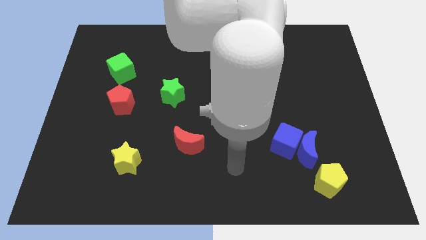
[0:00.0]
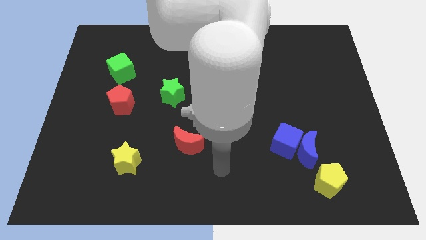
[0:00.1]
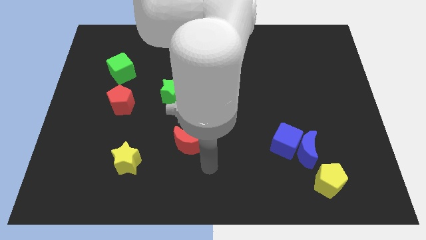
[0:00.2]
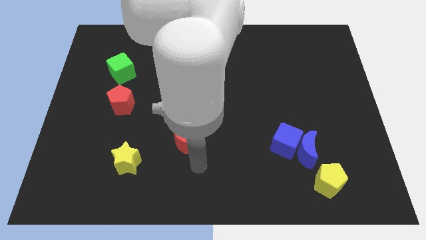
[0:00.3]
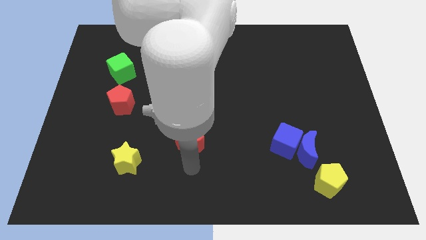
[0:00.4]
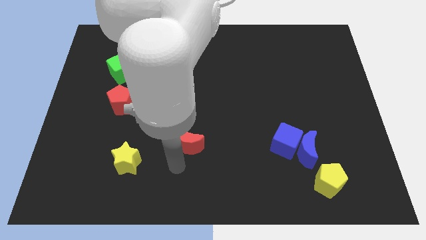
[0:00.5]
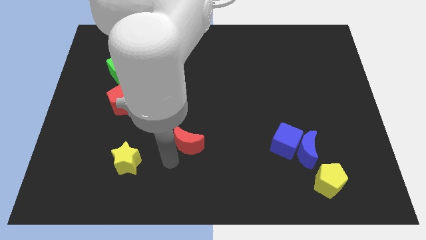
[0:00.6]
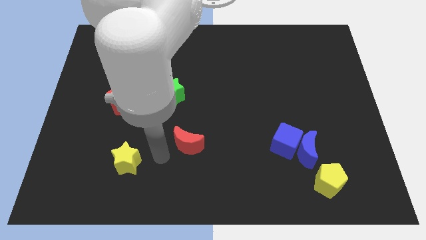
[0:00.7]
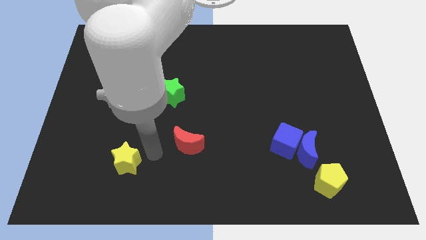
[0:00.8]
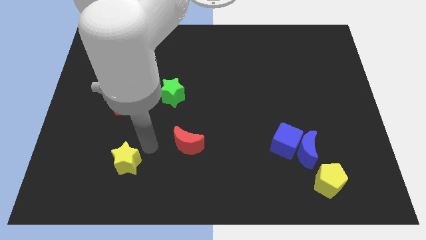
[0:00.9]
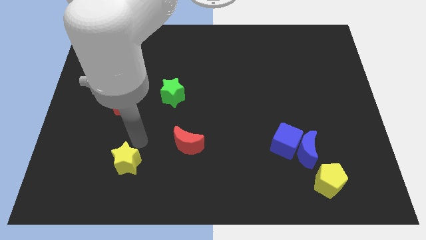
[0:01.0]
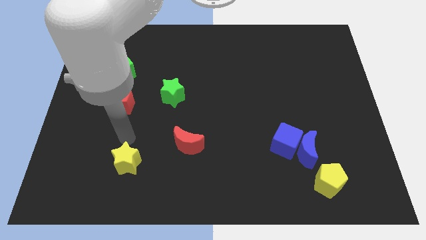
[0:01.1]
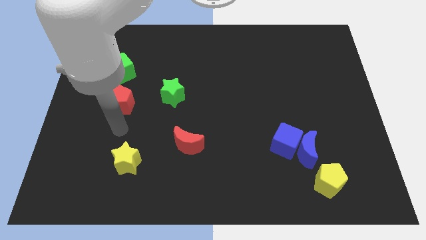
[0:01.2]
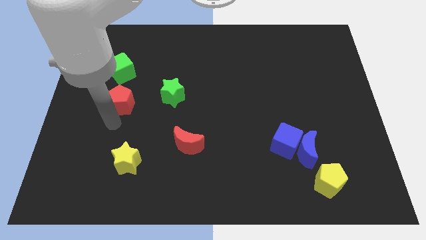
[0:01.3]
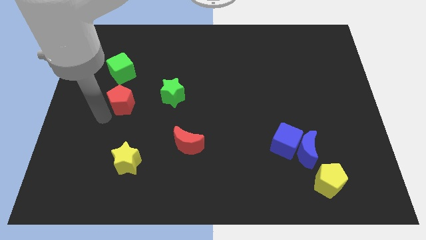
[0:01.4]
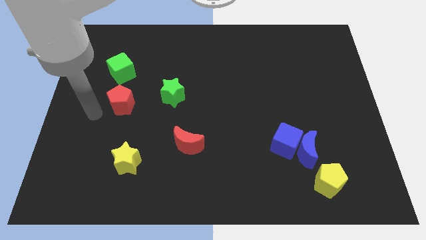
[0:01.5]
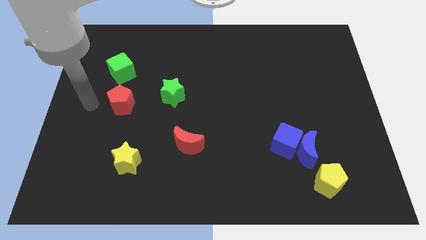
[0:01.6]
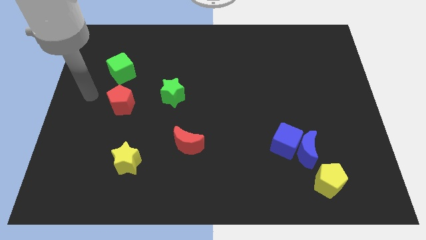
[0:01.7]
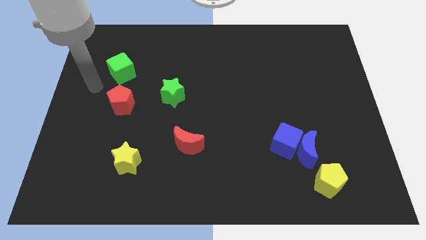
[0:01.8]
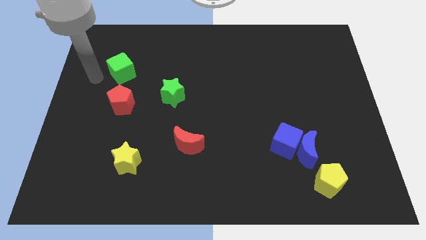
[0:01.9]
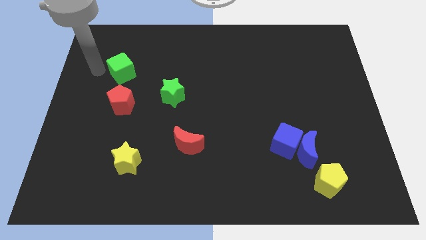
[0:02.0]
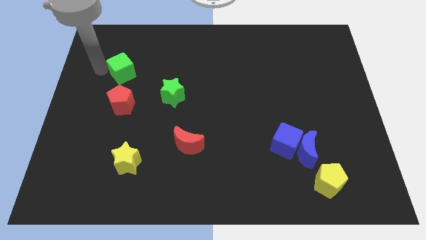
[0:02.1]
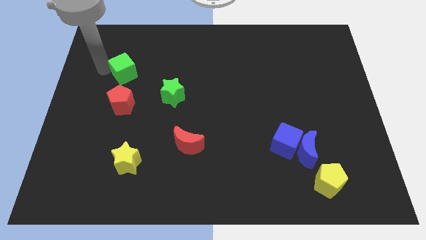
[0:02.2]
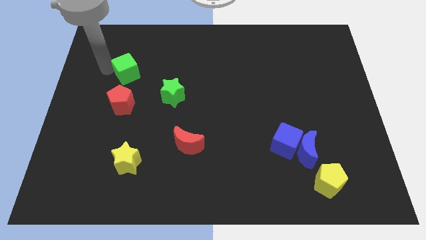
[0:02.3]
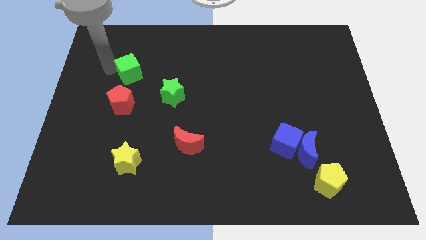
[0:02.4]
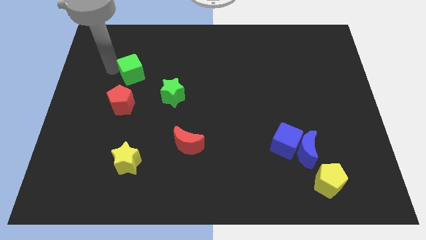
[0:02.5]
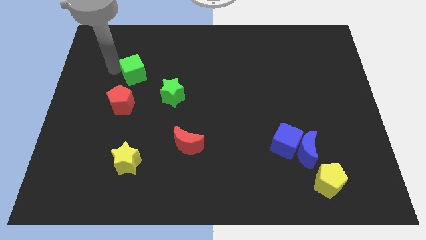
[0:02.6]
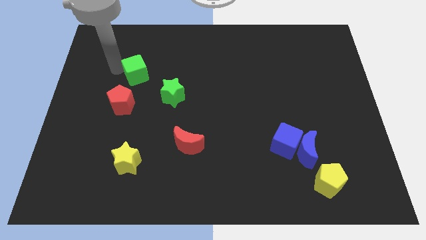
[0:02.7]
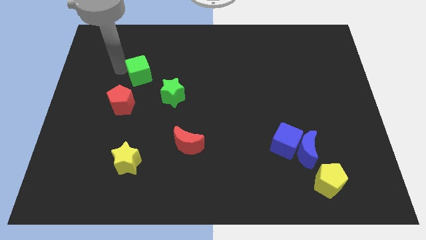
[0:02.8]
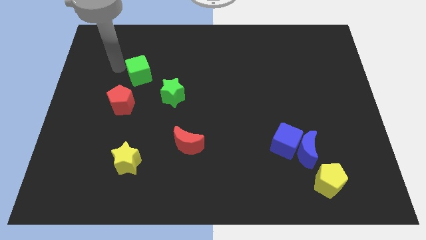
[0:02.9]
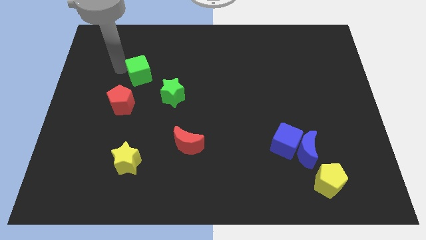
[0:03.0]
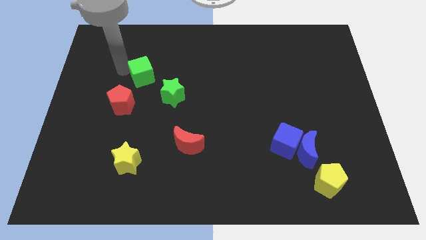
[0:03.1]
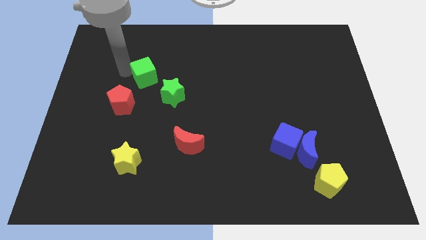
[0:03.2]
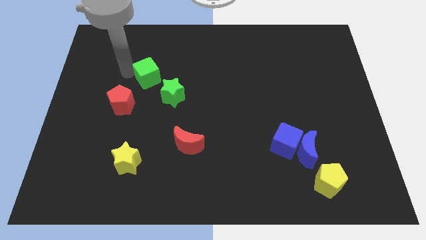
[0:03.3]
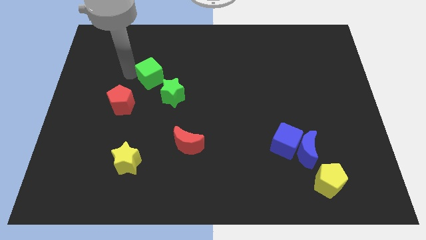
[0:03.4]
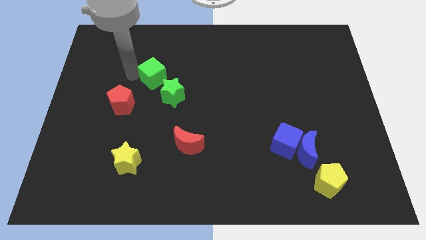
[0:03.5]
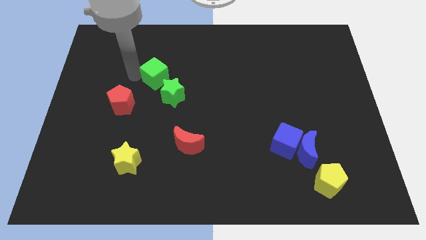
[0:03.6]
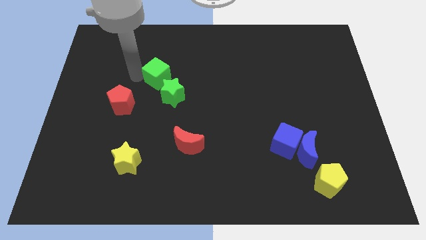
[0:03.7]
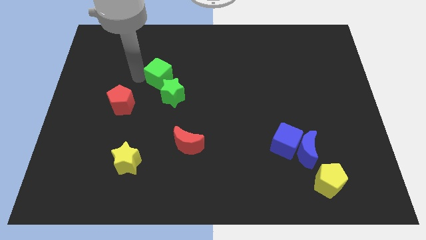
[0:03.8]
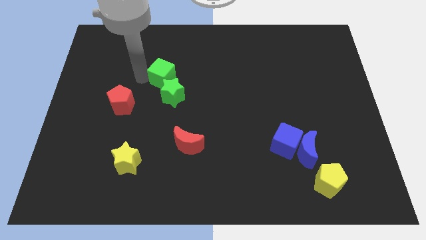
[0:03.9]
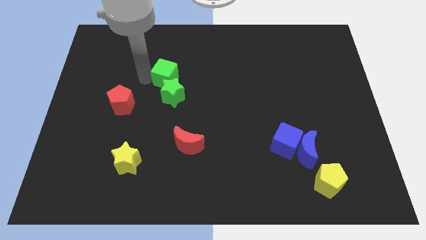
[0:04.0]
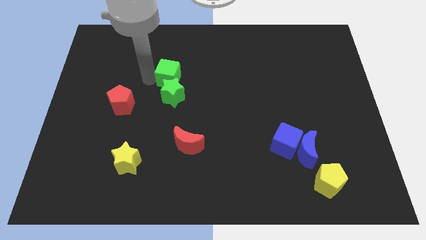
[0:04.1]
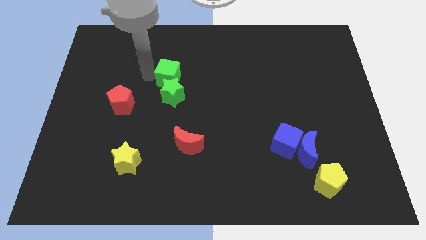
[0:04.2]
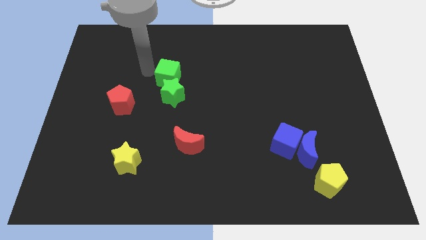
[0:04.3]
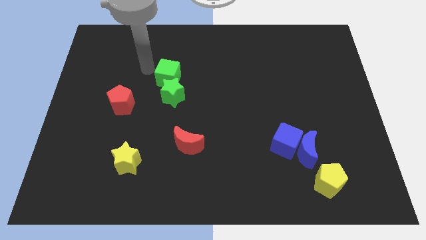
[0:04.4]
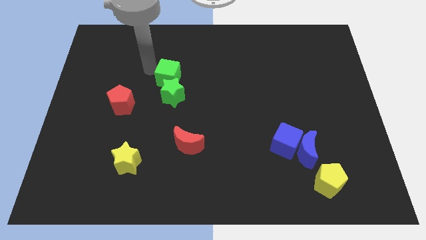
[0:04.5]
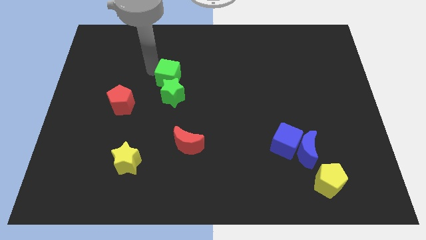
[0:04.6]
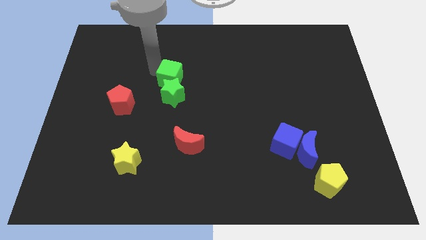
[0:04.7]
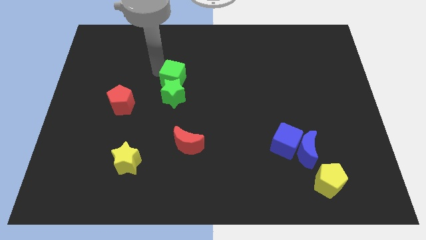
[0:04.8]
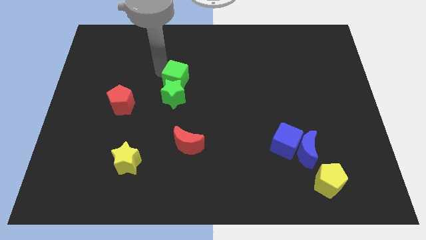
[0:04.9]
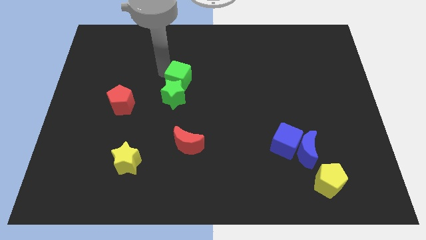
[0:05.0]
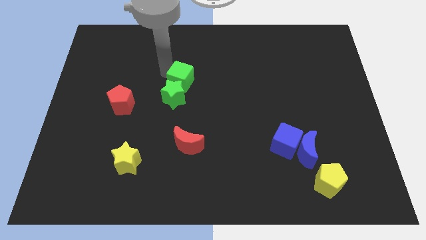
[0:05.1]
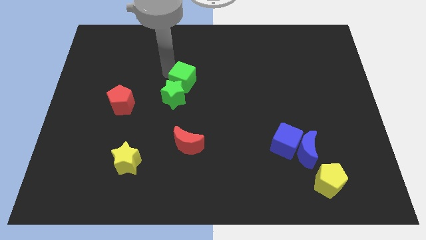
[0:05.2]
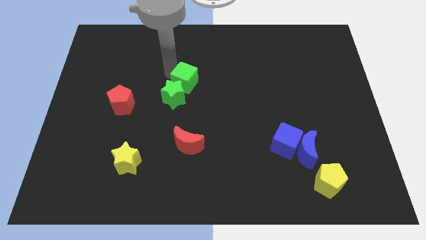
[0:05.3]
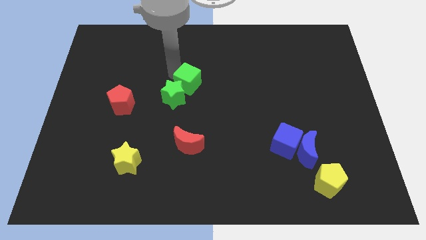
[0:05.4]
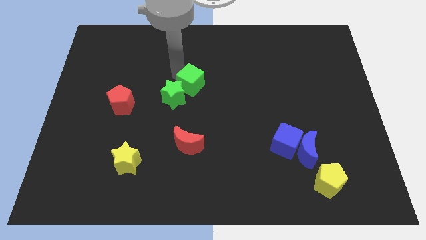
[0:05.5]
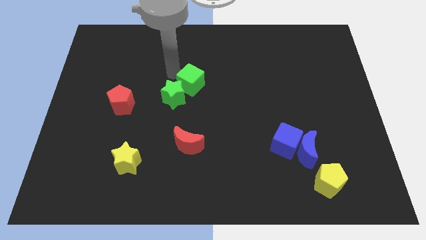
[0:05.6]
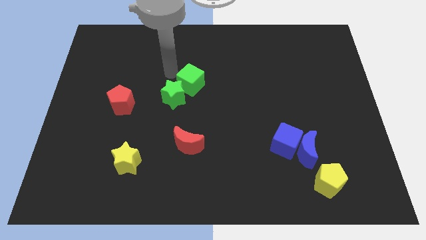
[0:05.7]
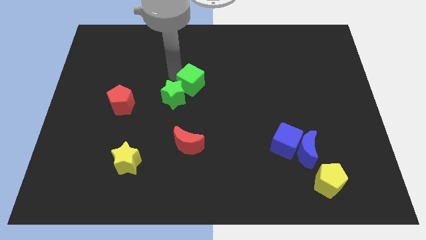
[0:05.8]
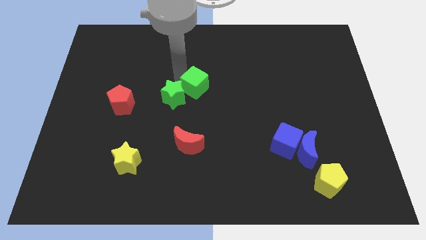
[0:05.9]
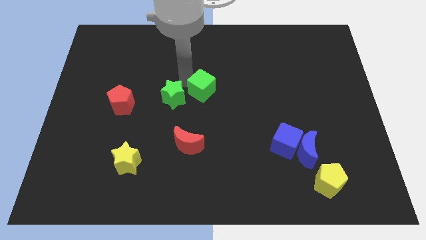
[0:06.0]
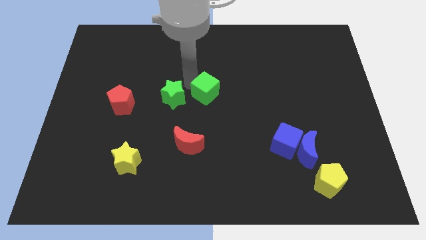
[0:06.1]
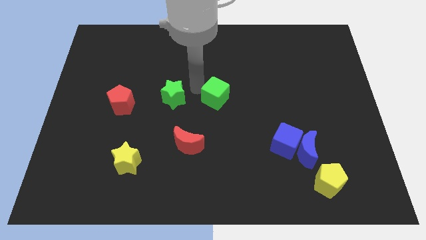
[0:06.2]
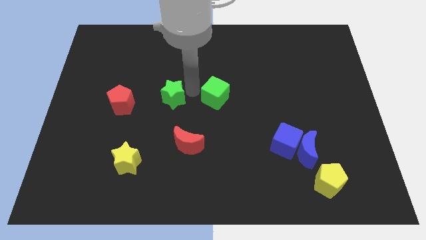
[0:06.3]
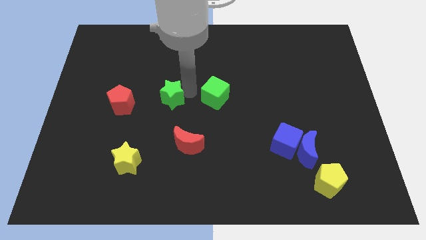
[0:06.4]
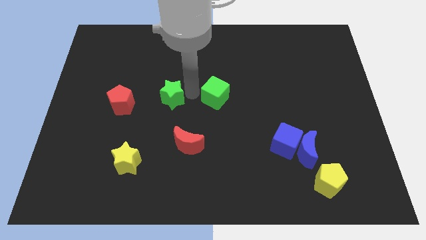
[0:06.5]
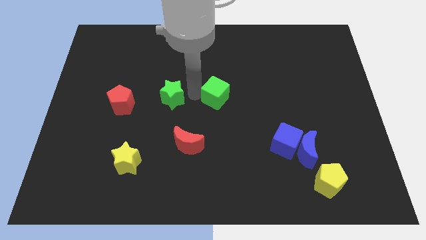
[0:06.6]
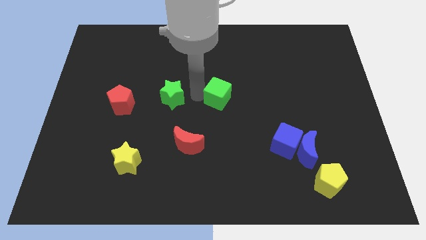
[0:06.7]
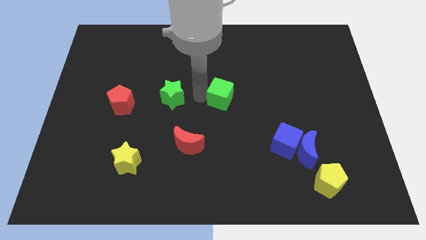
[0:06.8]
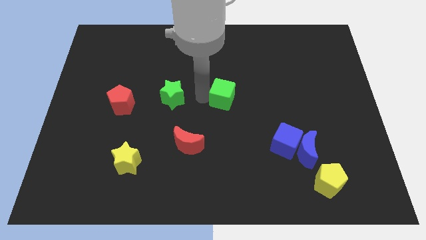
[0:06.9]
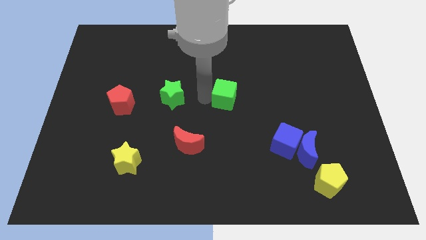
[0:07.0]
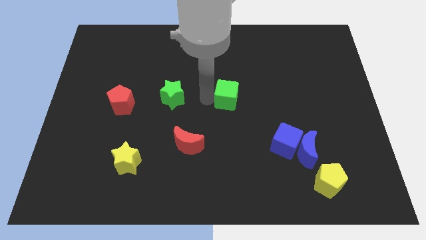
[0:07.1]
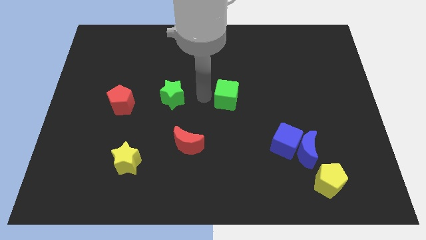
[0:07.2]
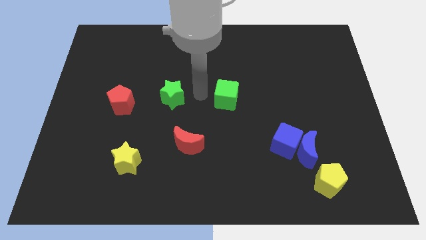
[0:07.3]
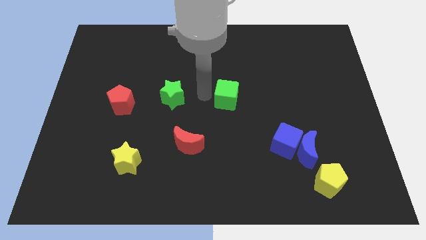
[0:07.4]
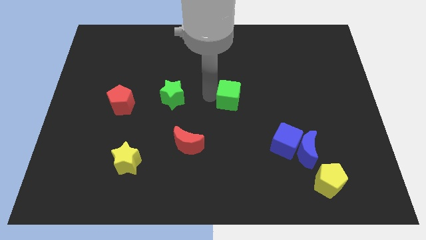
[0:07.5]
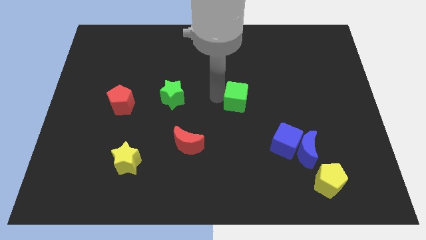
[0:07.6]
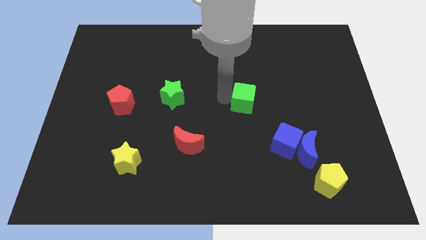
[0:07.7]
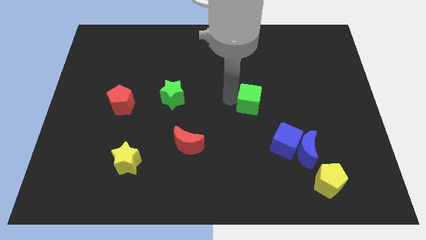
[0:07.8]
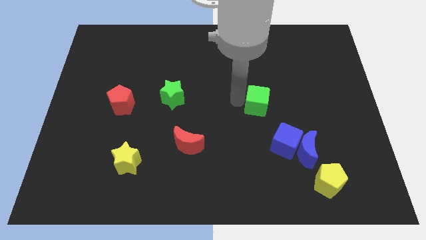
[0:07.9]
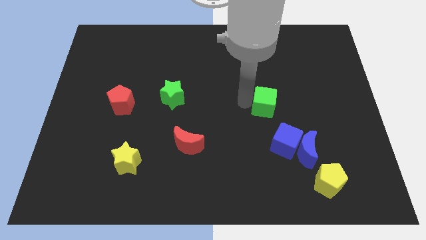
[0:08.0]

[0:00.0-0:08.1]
slide the green cube above the blue cube
